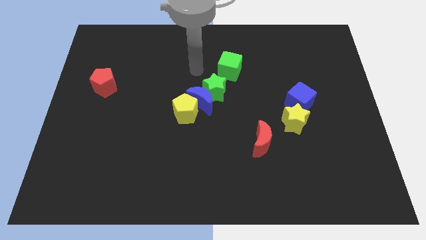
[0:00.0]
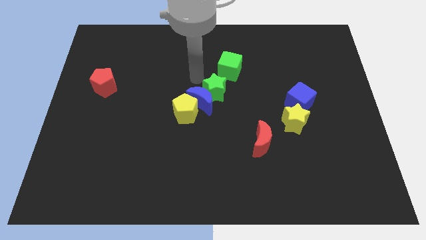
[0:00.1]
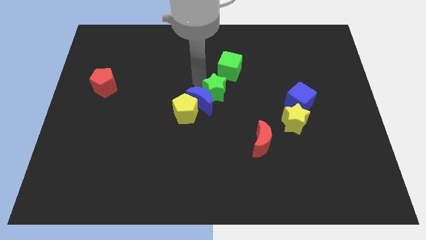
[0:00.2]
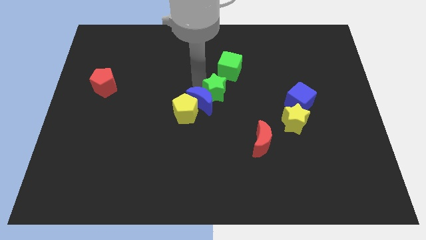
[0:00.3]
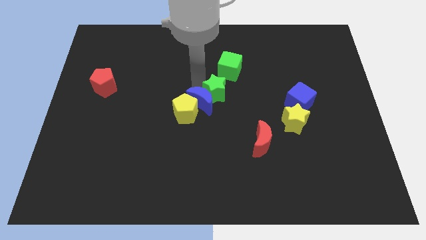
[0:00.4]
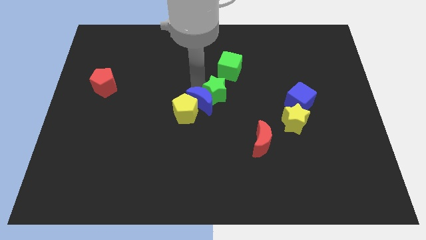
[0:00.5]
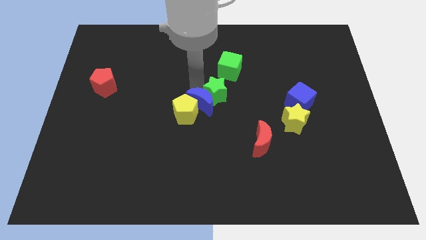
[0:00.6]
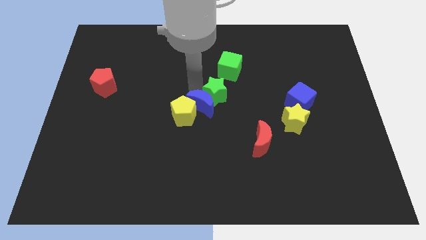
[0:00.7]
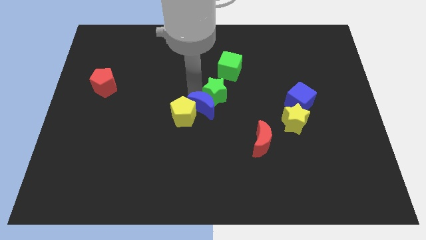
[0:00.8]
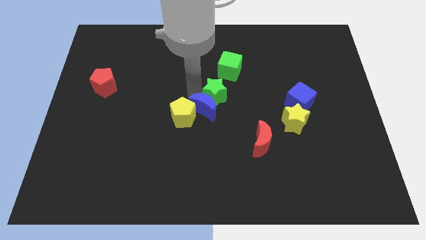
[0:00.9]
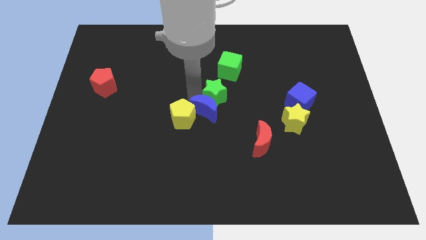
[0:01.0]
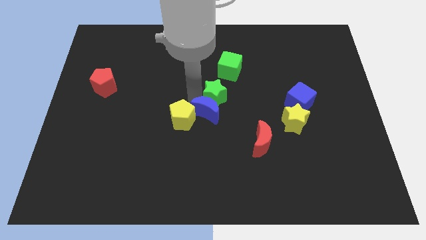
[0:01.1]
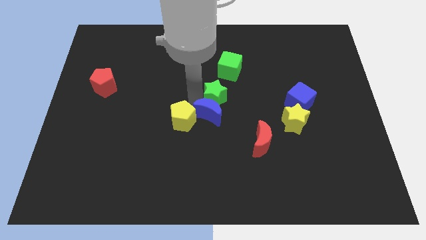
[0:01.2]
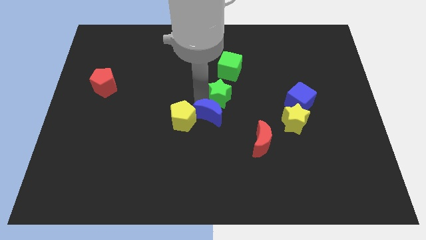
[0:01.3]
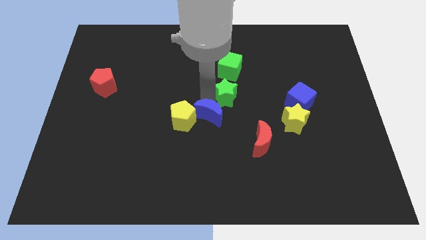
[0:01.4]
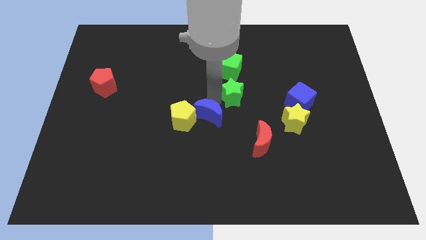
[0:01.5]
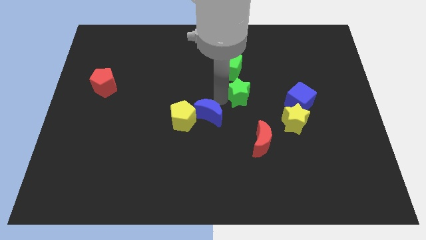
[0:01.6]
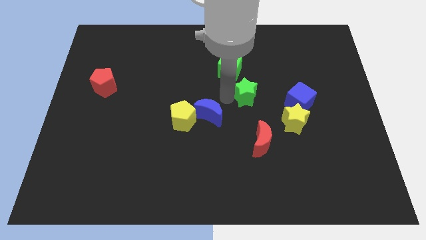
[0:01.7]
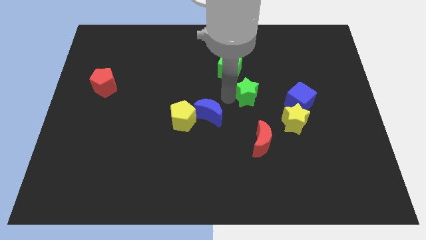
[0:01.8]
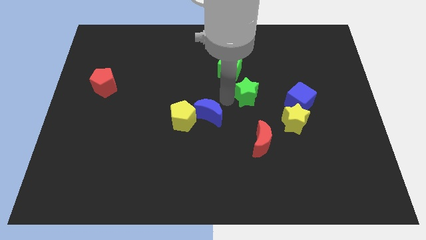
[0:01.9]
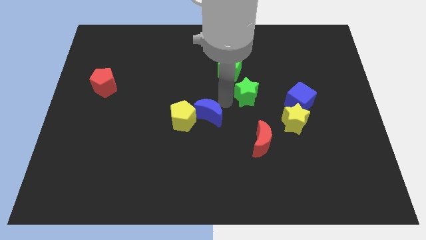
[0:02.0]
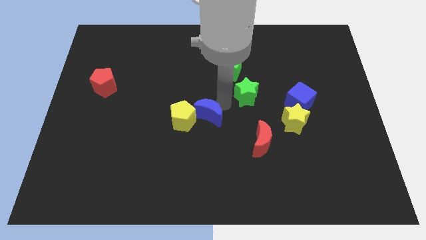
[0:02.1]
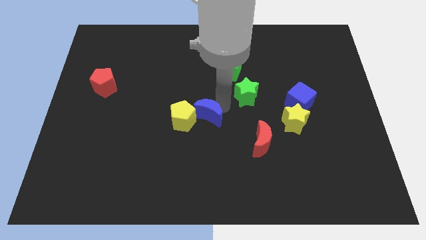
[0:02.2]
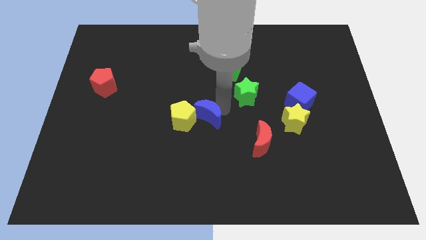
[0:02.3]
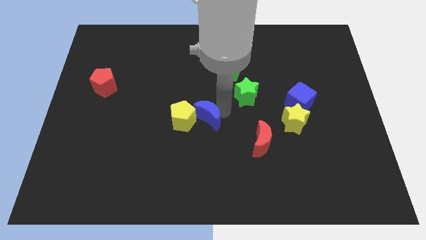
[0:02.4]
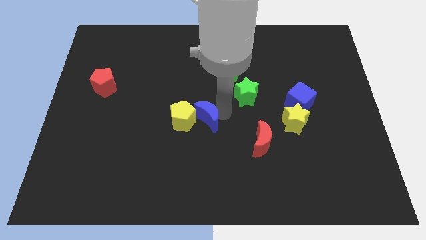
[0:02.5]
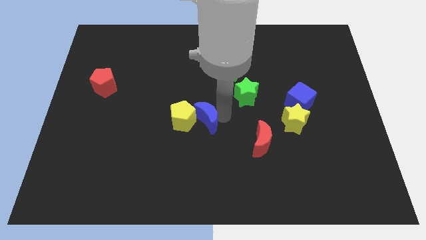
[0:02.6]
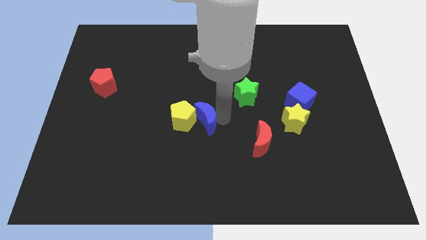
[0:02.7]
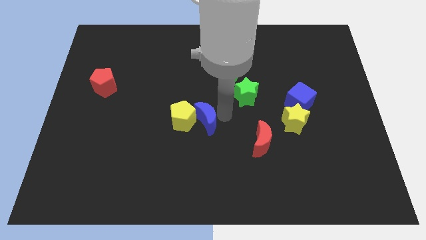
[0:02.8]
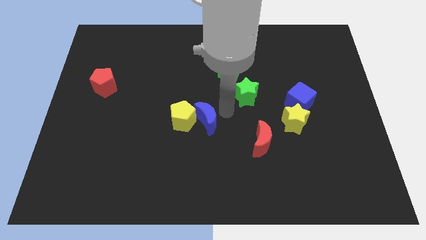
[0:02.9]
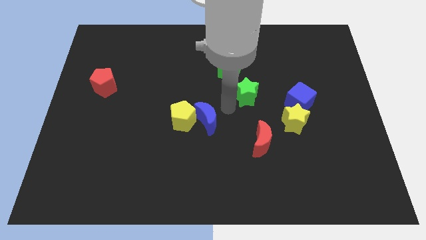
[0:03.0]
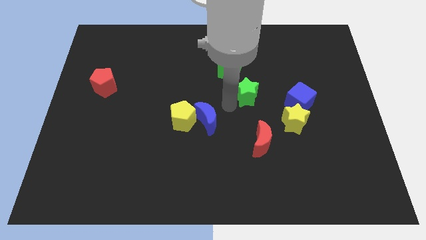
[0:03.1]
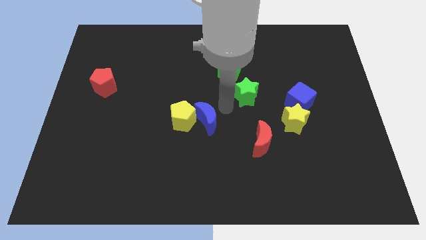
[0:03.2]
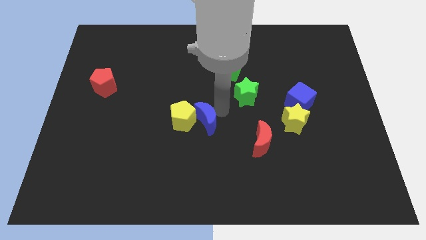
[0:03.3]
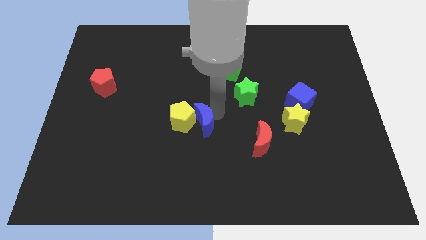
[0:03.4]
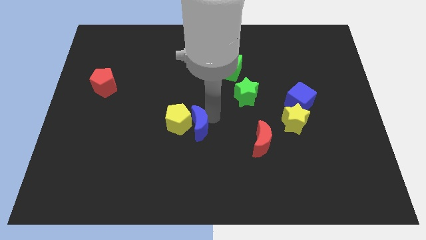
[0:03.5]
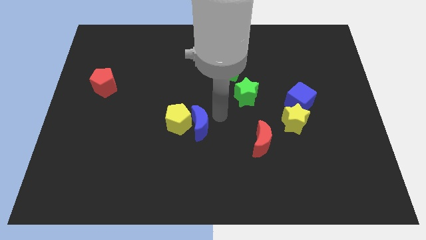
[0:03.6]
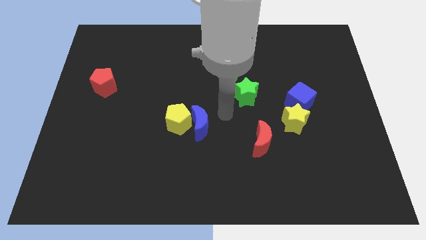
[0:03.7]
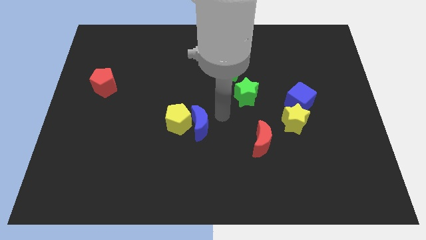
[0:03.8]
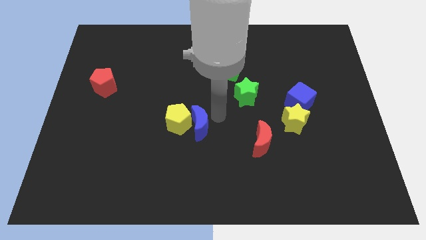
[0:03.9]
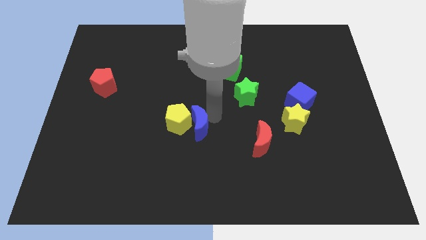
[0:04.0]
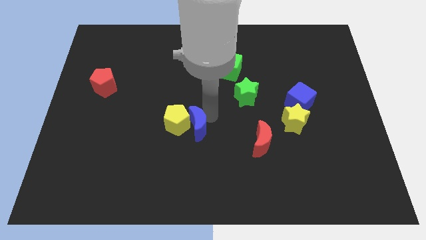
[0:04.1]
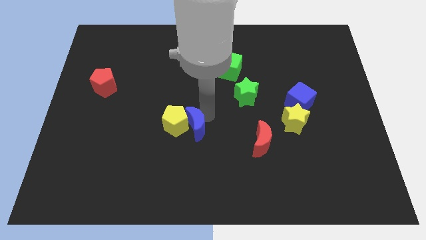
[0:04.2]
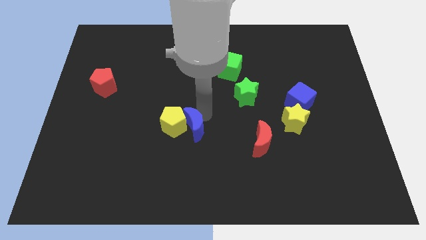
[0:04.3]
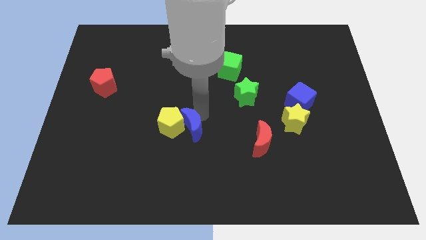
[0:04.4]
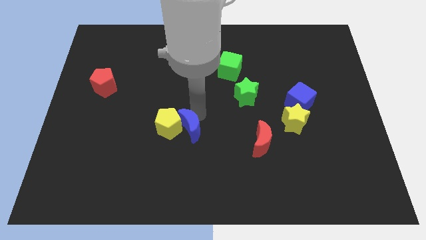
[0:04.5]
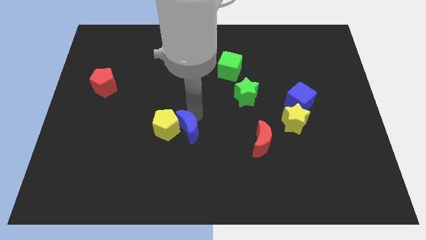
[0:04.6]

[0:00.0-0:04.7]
move the blue moon slightly diagonally downwards and to the left

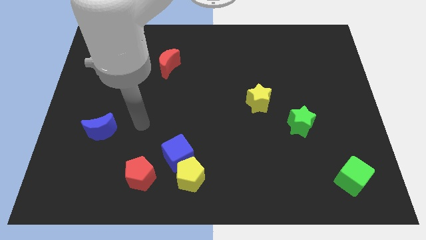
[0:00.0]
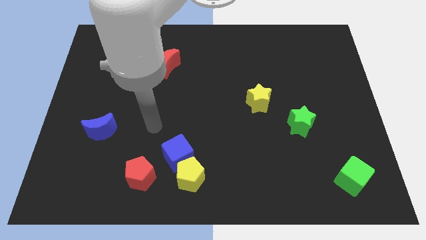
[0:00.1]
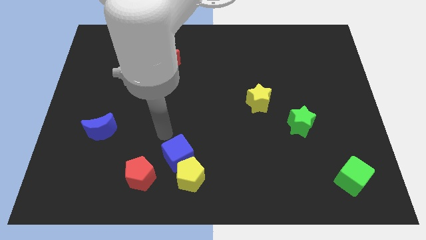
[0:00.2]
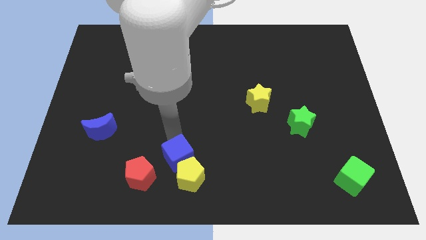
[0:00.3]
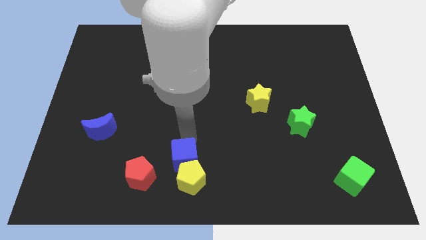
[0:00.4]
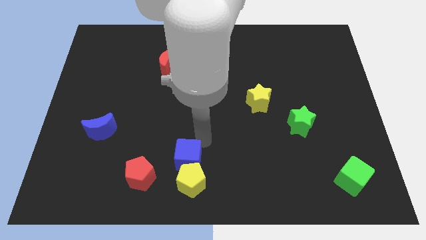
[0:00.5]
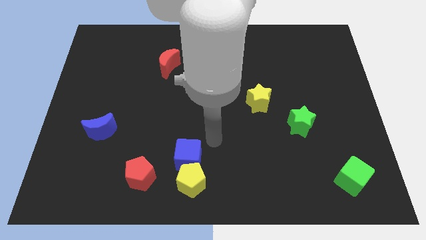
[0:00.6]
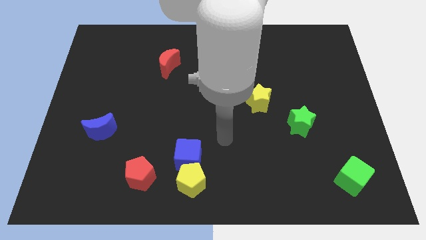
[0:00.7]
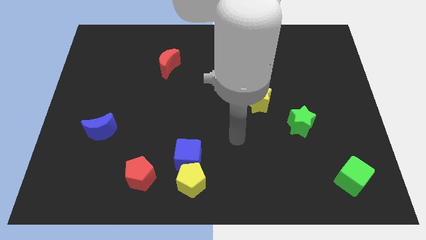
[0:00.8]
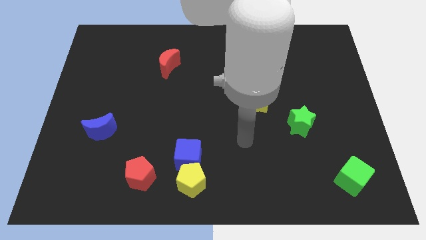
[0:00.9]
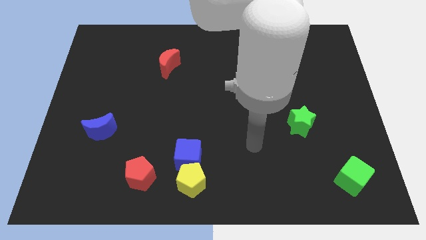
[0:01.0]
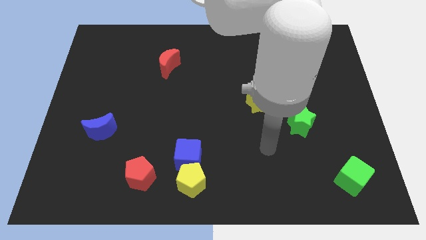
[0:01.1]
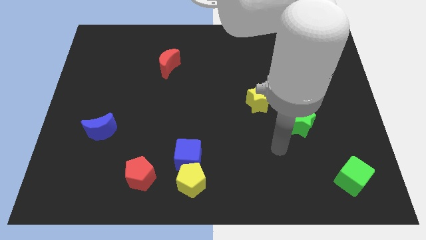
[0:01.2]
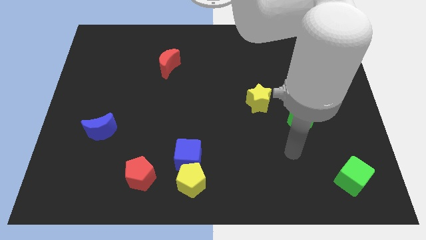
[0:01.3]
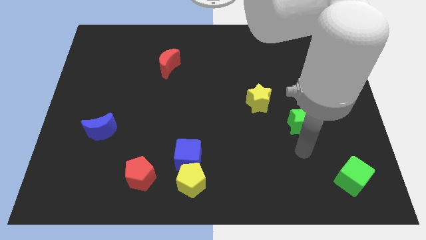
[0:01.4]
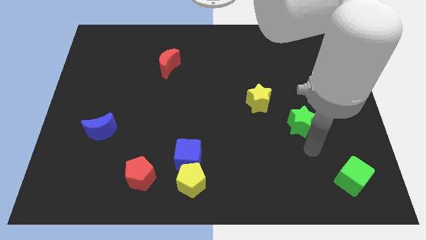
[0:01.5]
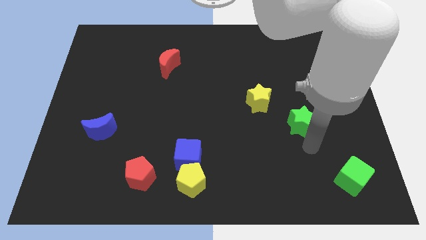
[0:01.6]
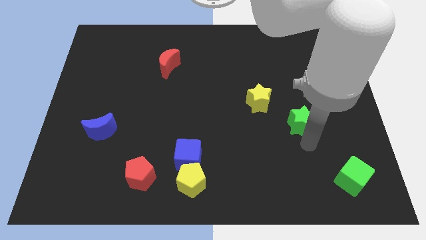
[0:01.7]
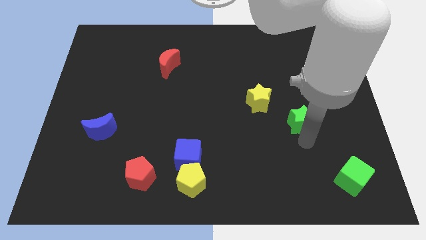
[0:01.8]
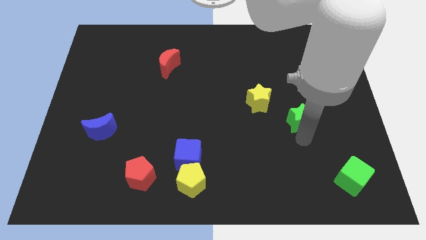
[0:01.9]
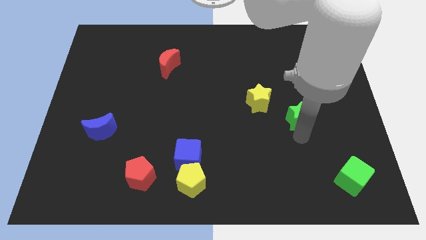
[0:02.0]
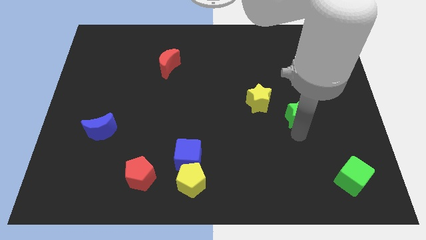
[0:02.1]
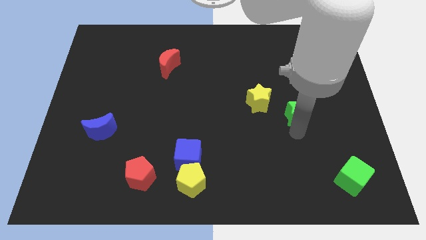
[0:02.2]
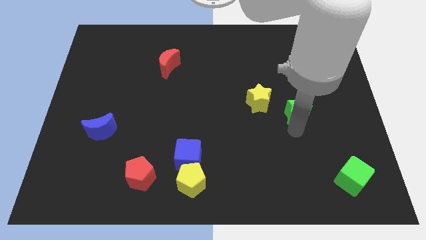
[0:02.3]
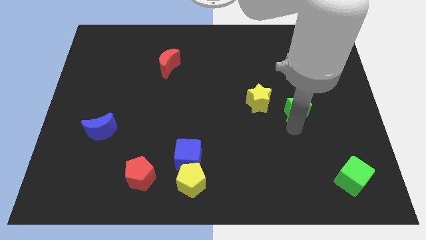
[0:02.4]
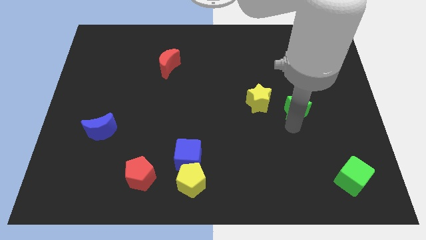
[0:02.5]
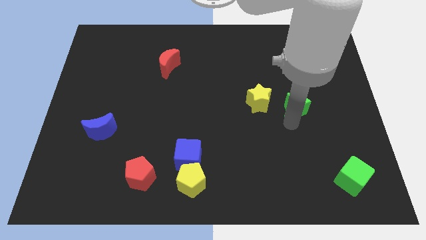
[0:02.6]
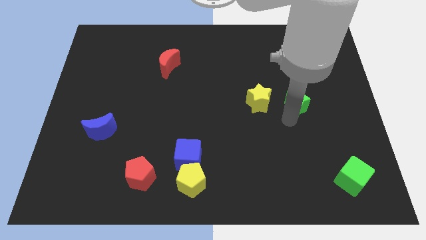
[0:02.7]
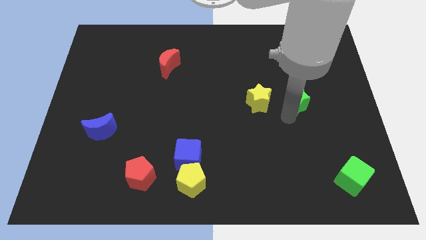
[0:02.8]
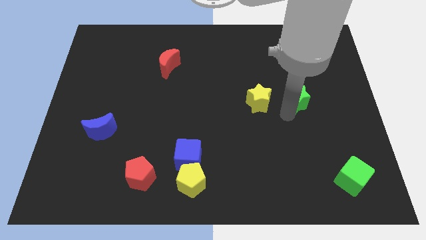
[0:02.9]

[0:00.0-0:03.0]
slightly push the green star up
